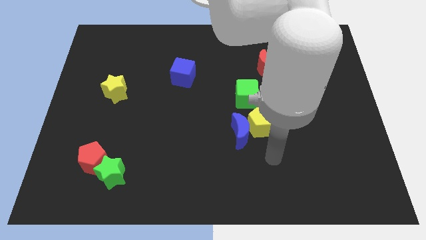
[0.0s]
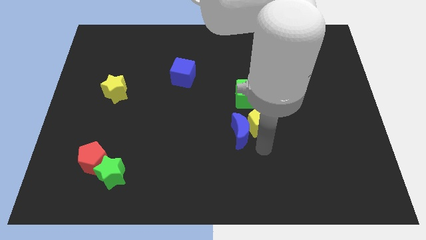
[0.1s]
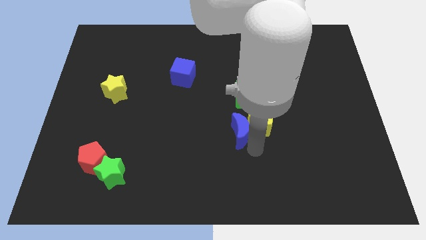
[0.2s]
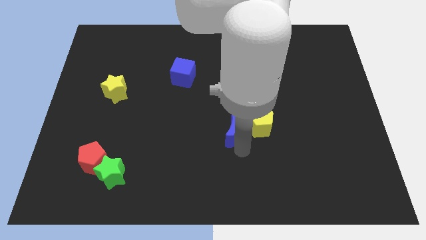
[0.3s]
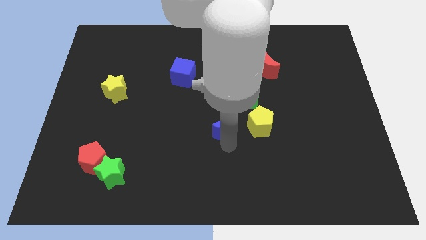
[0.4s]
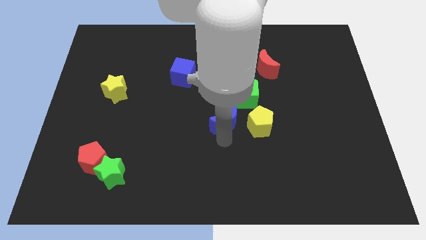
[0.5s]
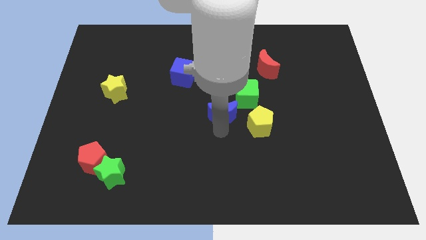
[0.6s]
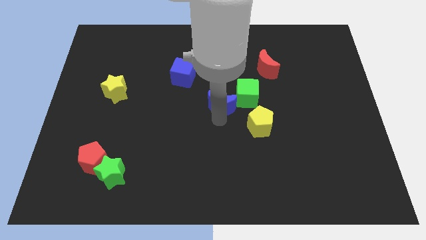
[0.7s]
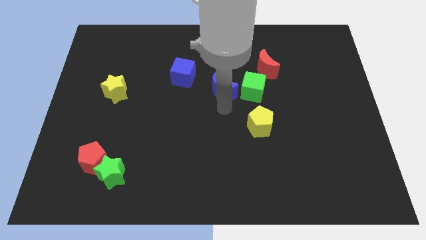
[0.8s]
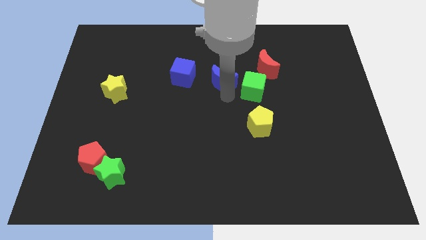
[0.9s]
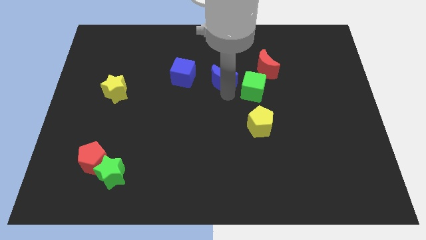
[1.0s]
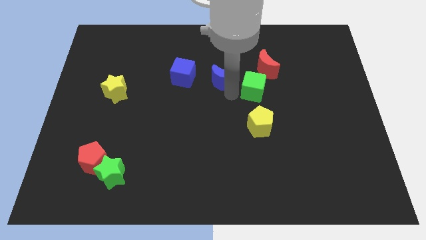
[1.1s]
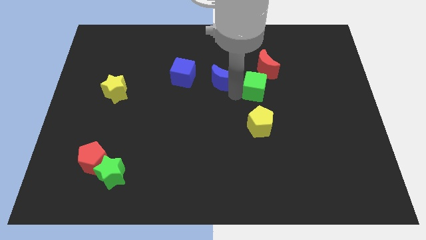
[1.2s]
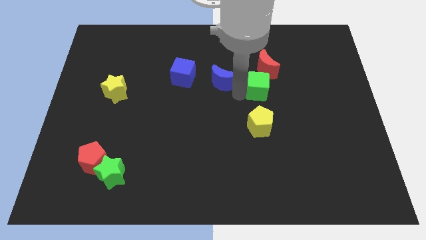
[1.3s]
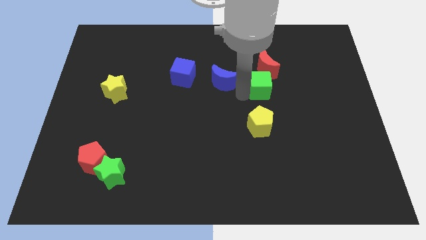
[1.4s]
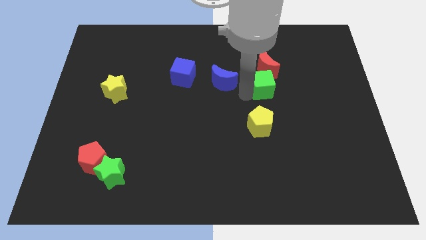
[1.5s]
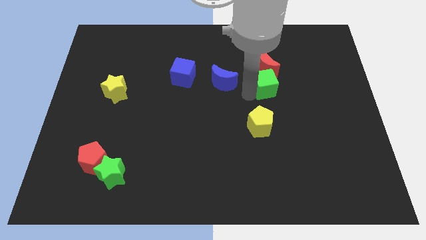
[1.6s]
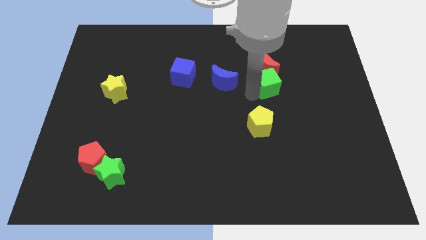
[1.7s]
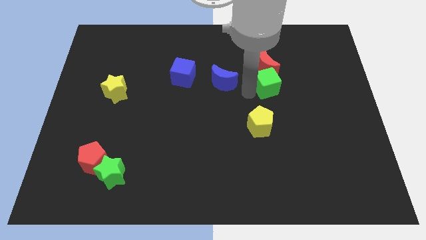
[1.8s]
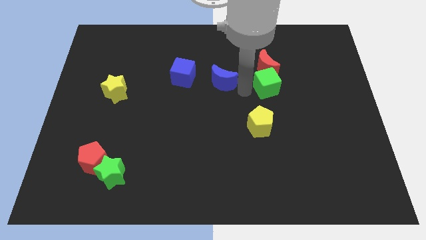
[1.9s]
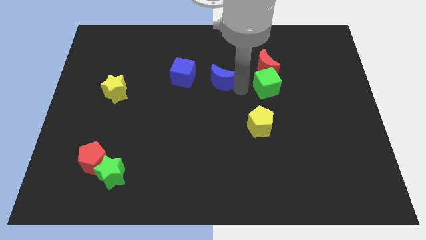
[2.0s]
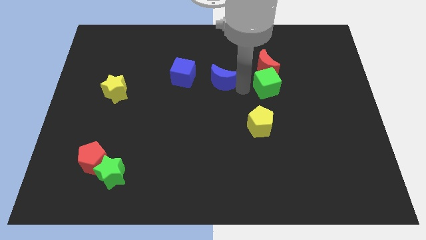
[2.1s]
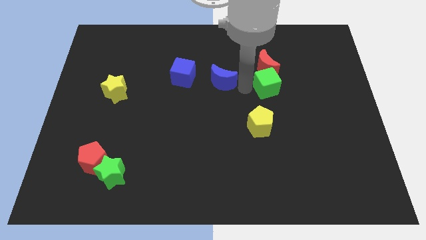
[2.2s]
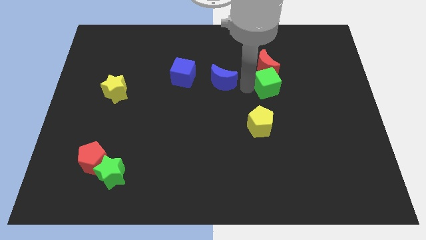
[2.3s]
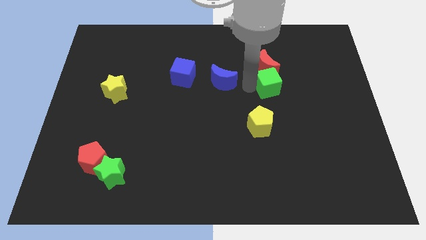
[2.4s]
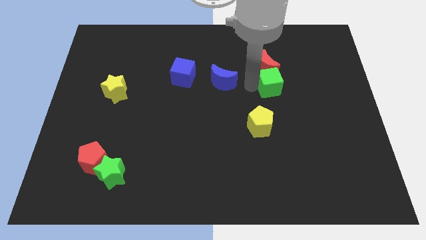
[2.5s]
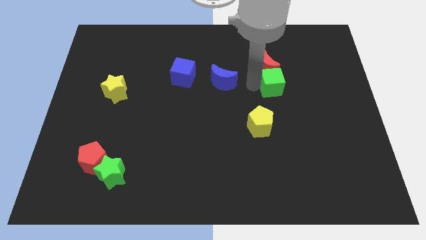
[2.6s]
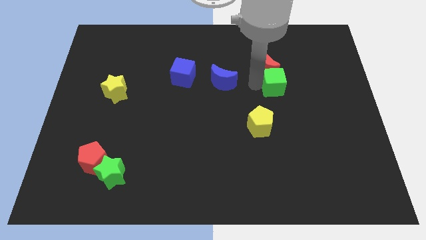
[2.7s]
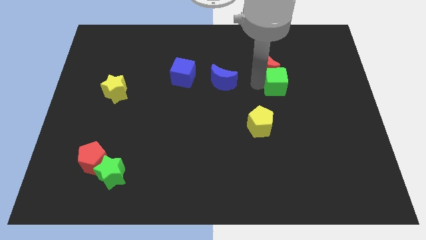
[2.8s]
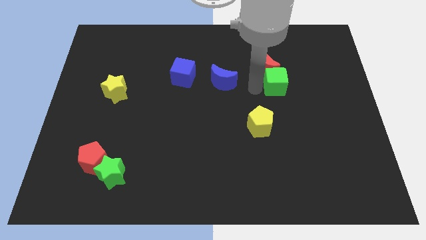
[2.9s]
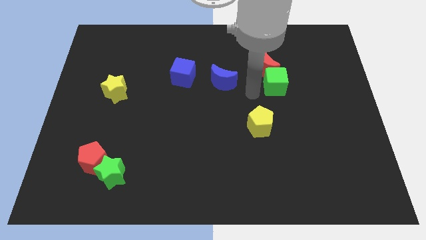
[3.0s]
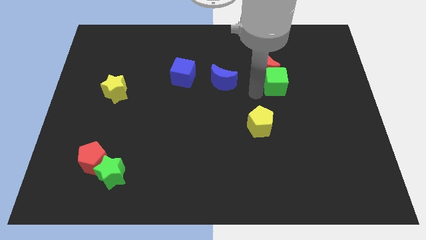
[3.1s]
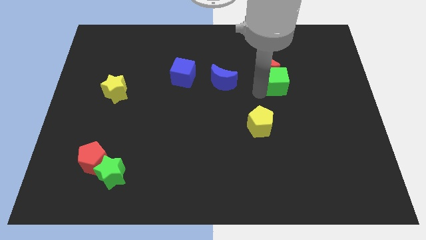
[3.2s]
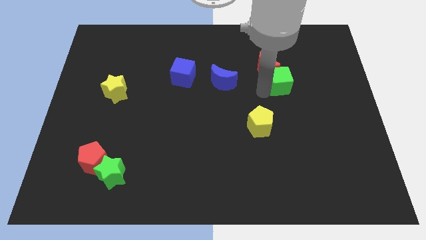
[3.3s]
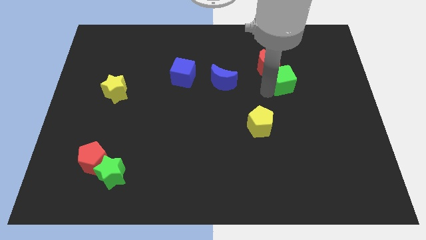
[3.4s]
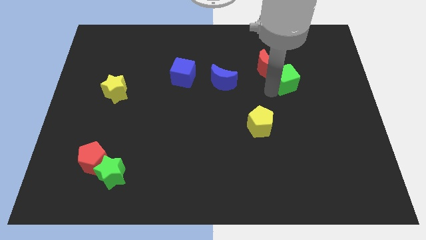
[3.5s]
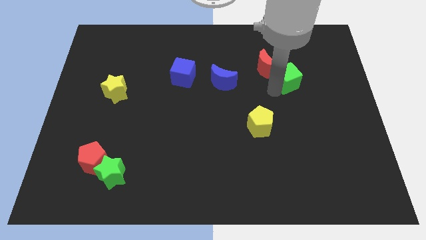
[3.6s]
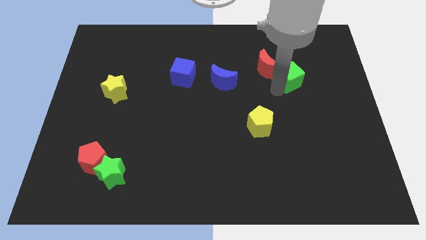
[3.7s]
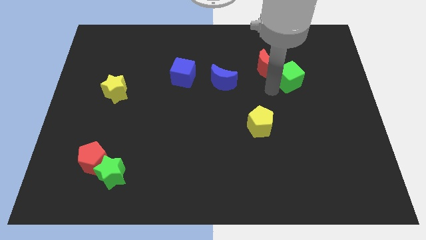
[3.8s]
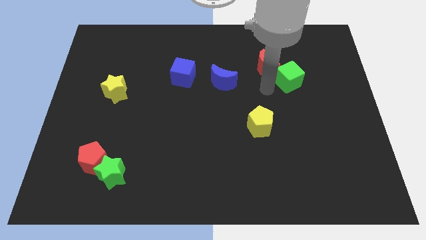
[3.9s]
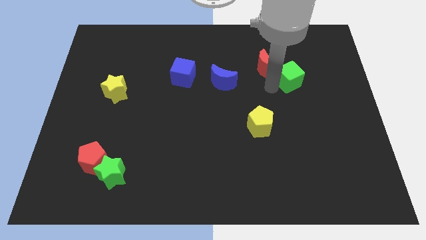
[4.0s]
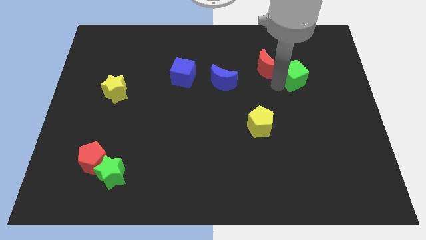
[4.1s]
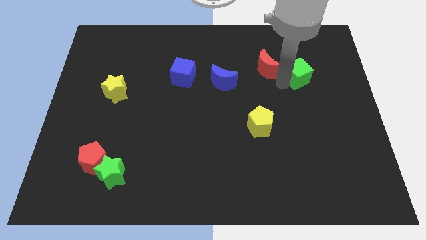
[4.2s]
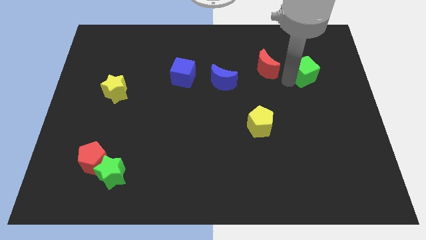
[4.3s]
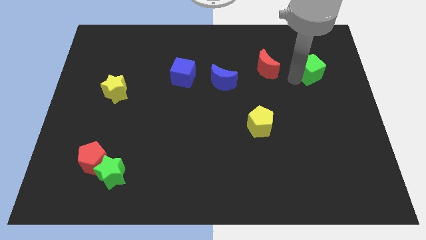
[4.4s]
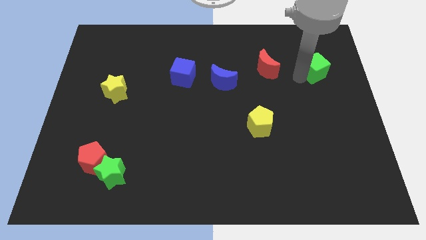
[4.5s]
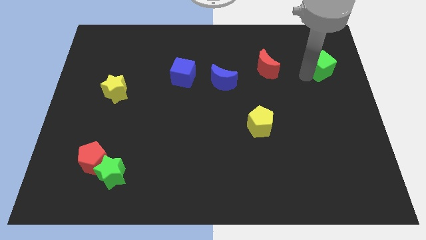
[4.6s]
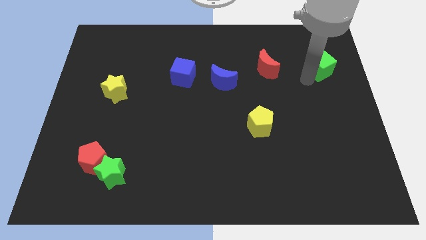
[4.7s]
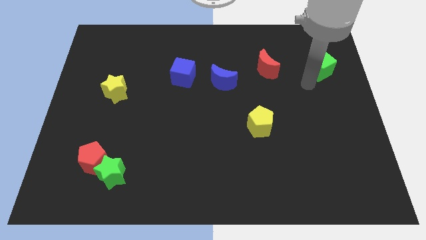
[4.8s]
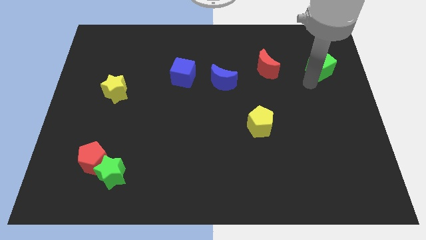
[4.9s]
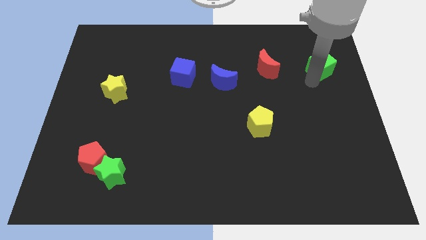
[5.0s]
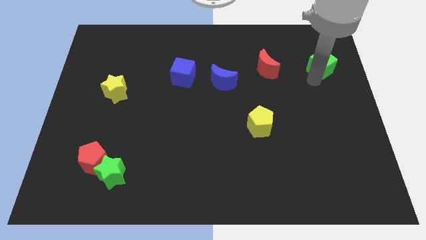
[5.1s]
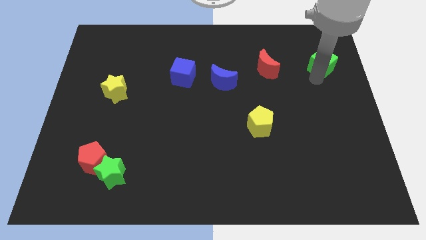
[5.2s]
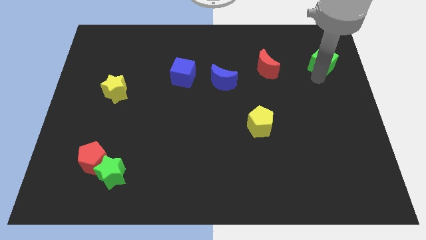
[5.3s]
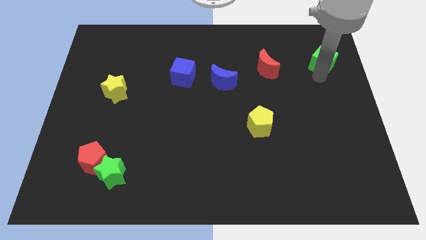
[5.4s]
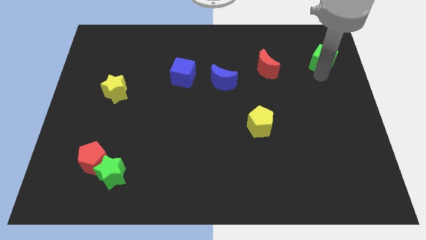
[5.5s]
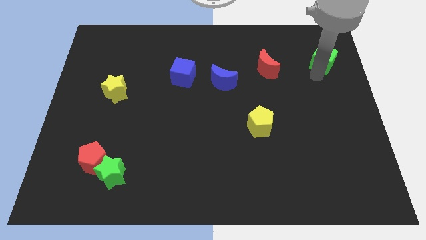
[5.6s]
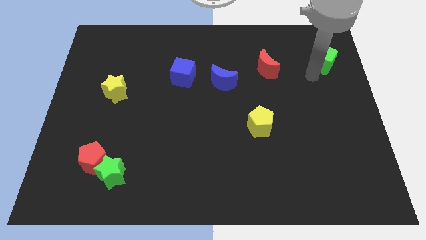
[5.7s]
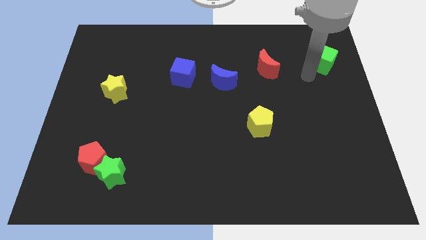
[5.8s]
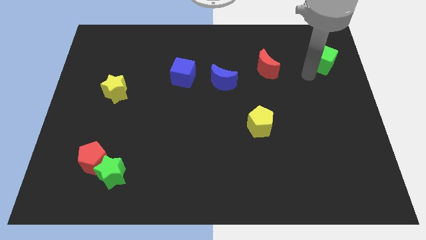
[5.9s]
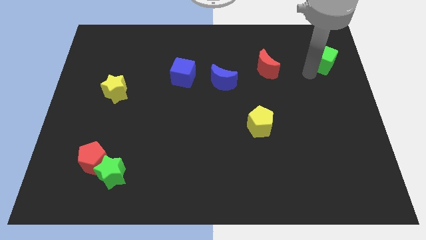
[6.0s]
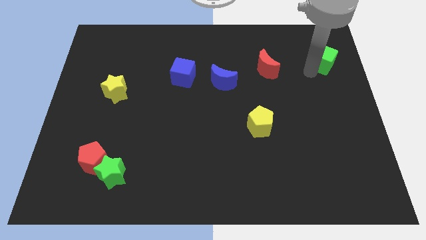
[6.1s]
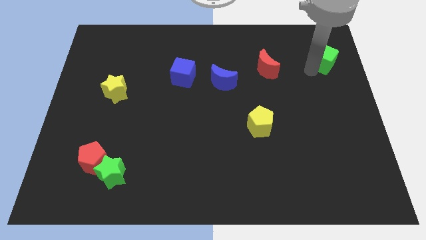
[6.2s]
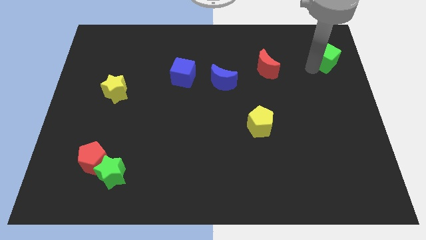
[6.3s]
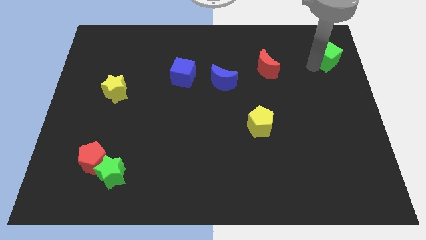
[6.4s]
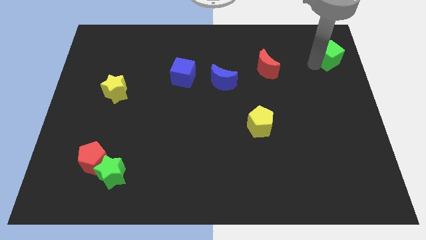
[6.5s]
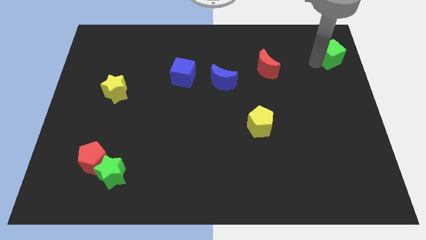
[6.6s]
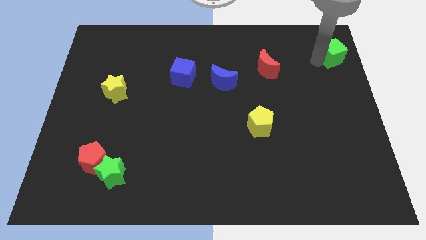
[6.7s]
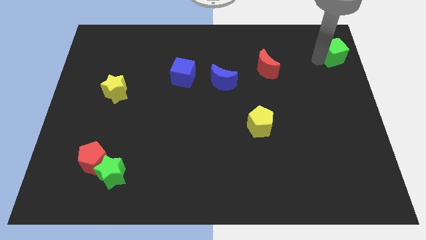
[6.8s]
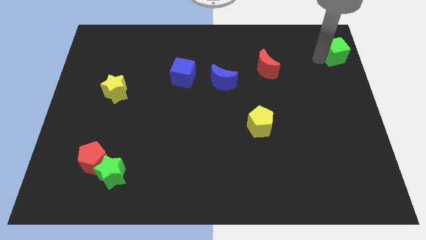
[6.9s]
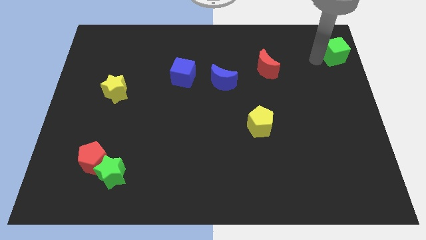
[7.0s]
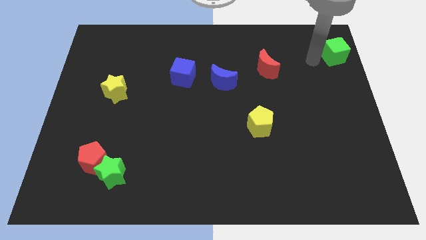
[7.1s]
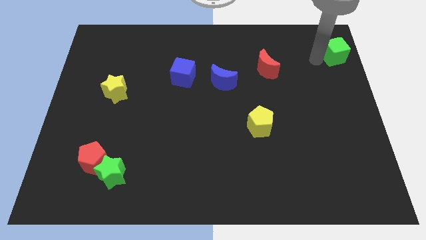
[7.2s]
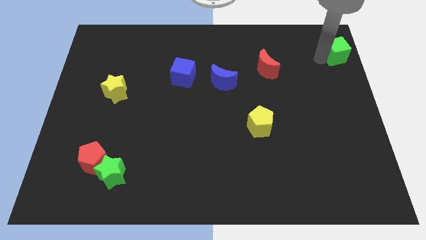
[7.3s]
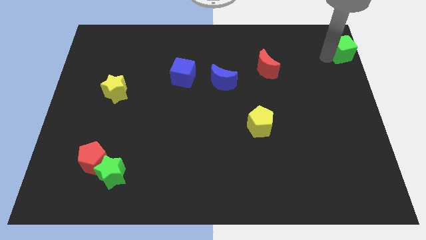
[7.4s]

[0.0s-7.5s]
put the green cube to the top right corner
